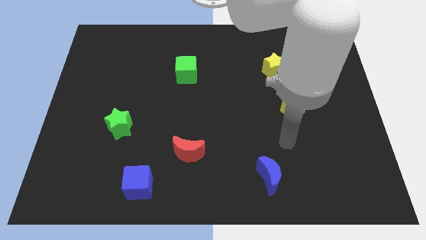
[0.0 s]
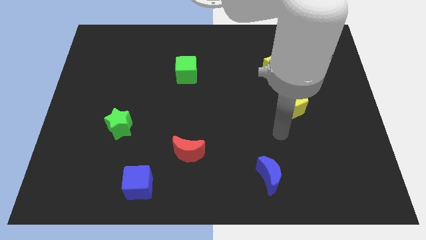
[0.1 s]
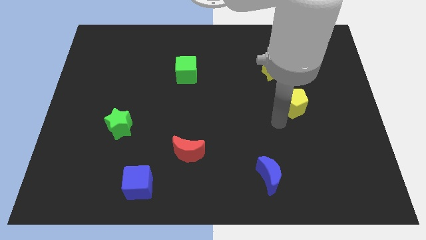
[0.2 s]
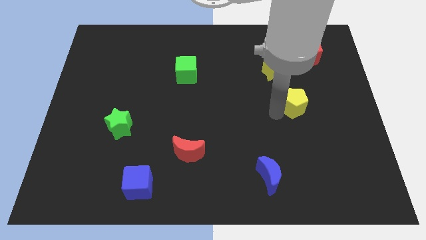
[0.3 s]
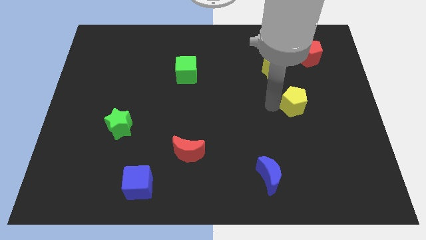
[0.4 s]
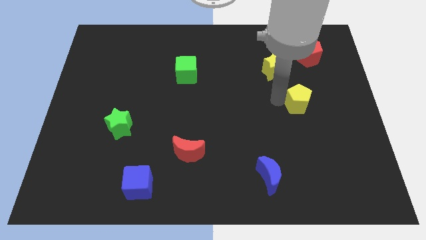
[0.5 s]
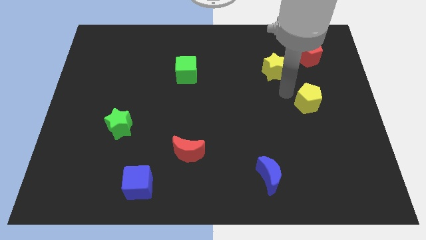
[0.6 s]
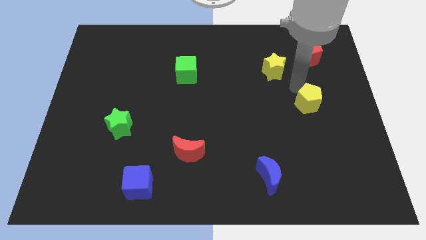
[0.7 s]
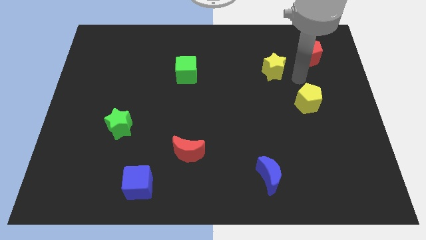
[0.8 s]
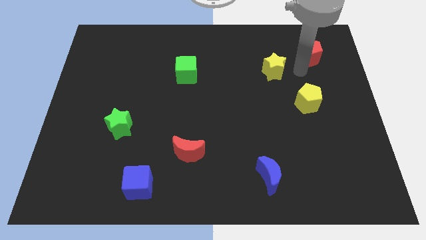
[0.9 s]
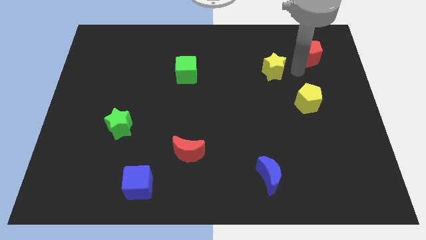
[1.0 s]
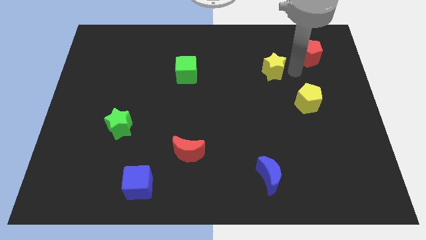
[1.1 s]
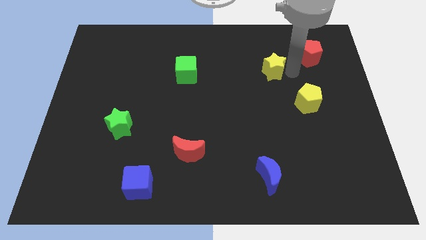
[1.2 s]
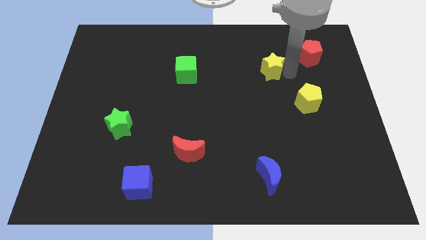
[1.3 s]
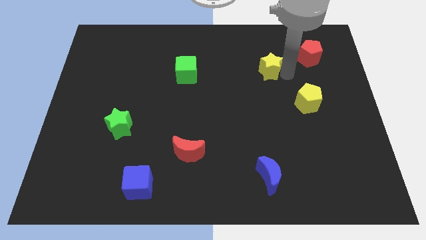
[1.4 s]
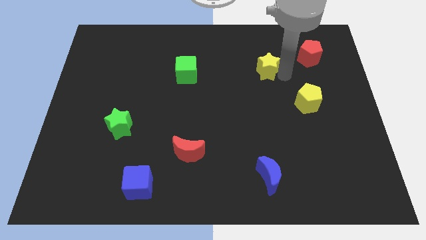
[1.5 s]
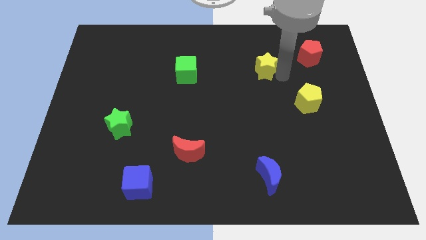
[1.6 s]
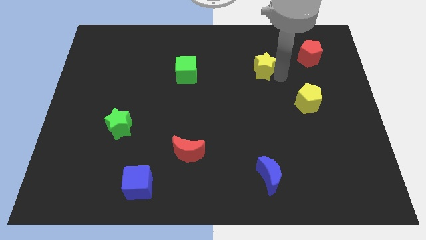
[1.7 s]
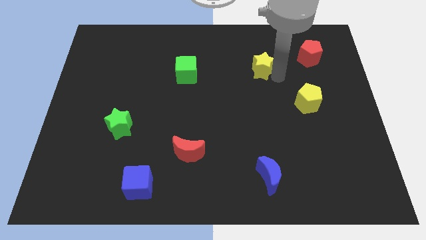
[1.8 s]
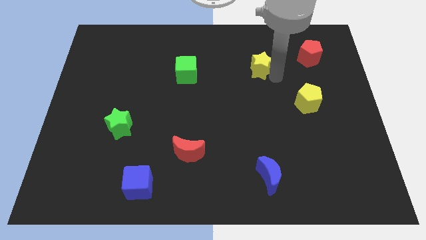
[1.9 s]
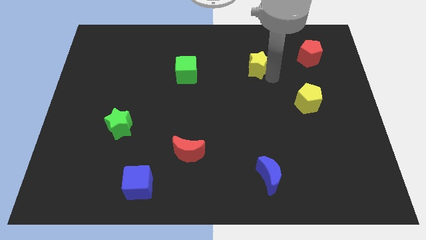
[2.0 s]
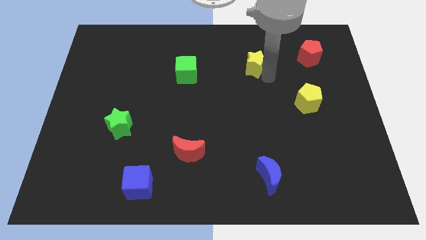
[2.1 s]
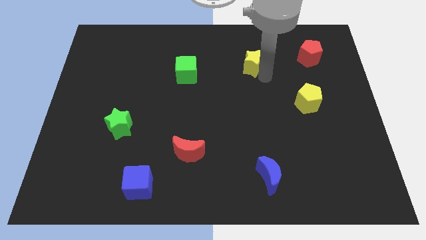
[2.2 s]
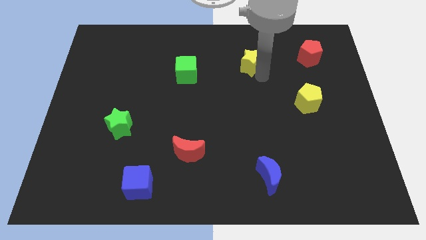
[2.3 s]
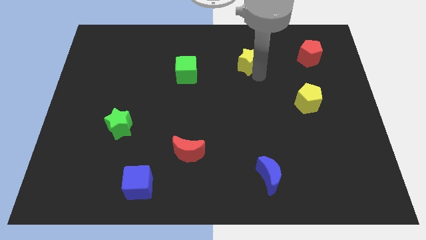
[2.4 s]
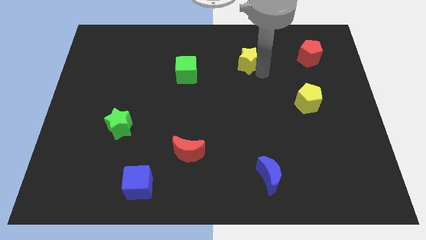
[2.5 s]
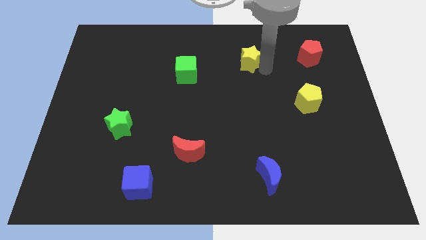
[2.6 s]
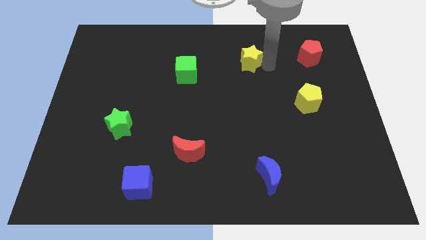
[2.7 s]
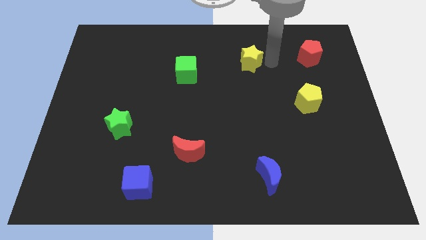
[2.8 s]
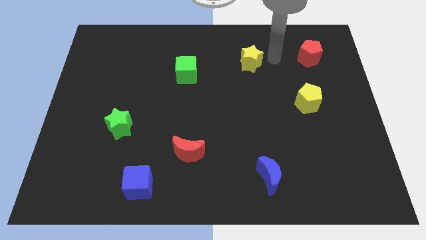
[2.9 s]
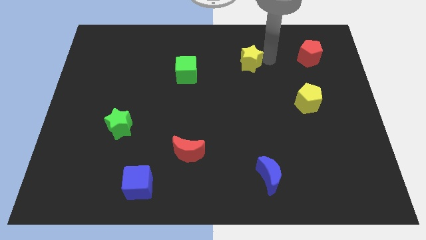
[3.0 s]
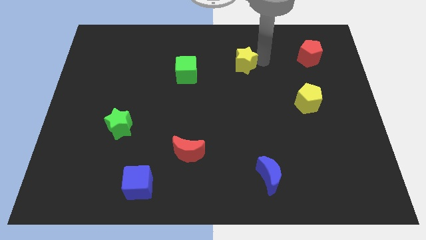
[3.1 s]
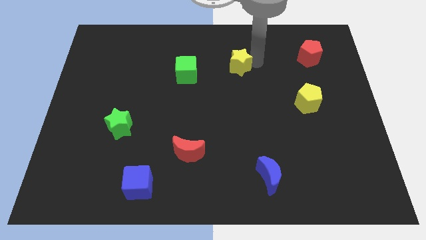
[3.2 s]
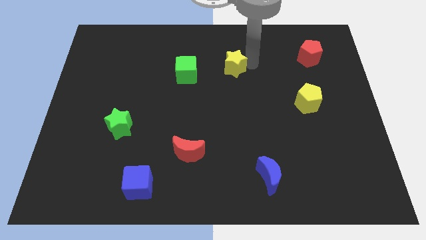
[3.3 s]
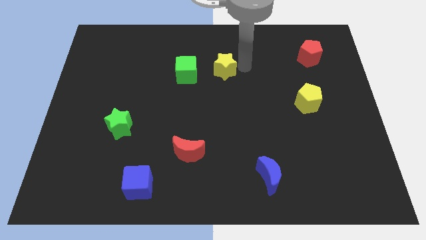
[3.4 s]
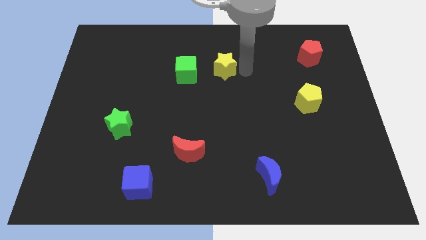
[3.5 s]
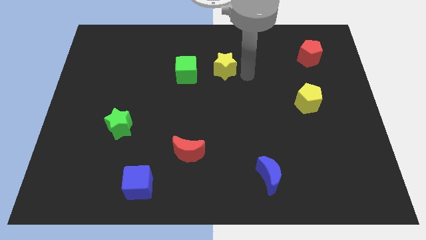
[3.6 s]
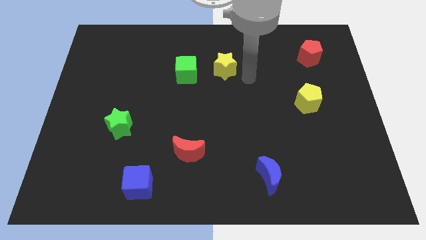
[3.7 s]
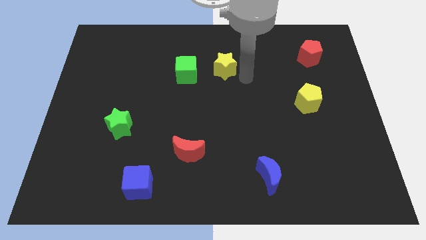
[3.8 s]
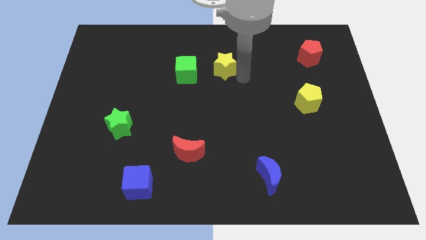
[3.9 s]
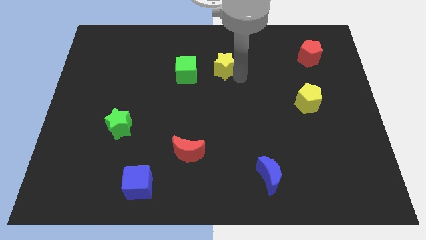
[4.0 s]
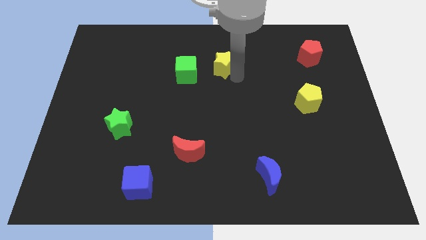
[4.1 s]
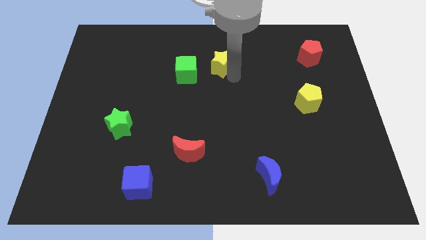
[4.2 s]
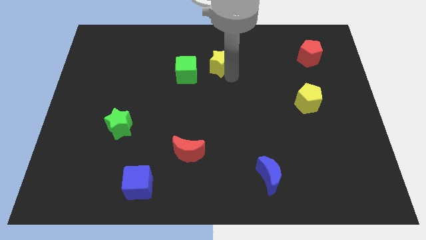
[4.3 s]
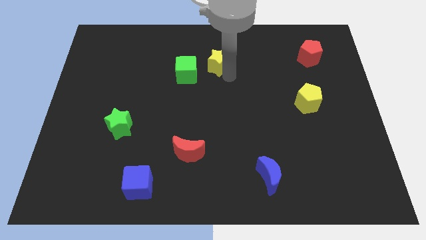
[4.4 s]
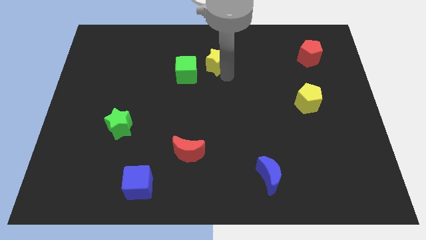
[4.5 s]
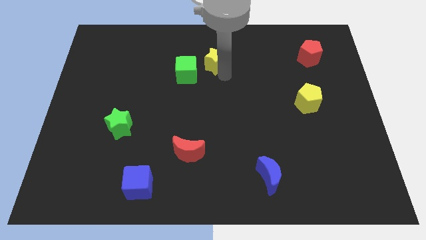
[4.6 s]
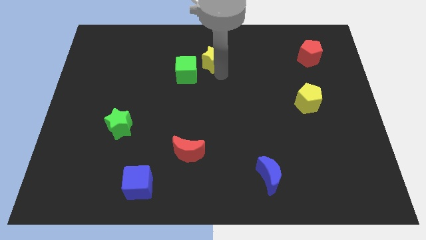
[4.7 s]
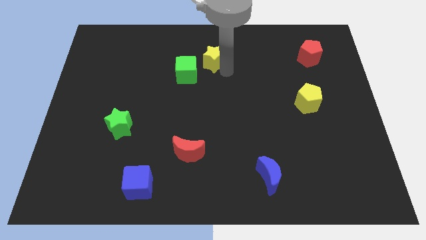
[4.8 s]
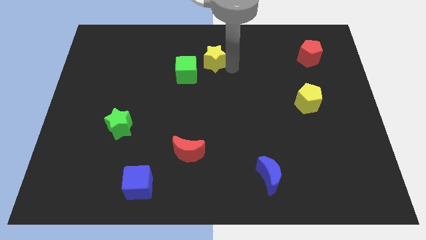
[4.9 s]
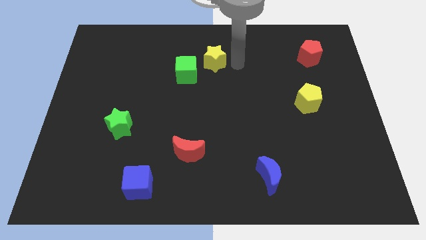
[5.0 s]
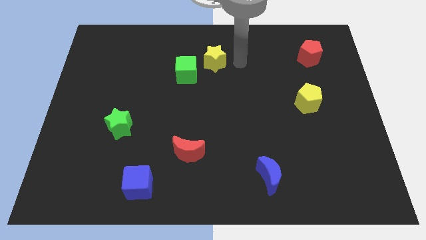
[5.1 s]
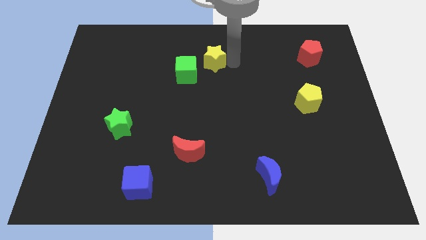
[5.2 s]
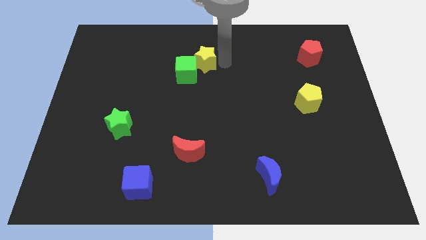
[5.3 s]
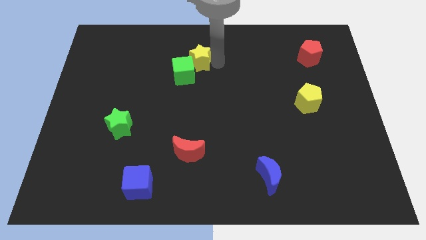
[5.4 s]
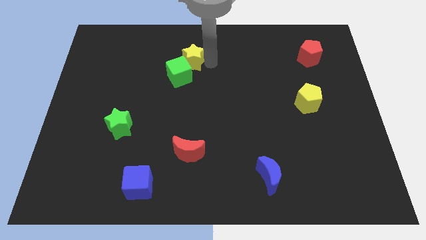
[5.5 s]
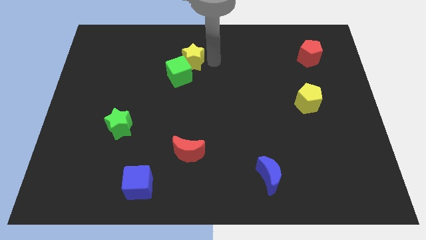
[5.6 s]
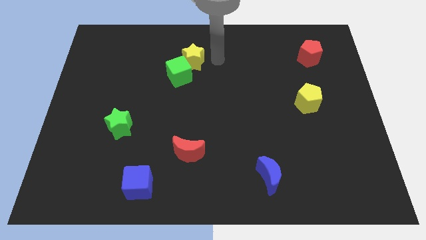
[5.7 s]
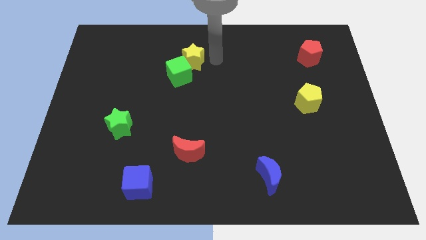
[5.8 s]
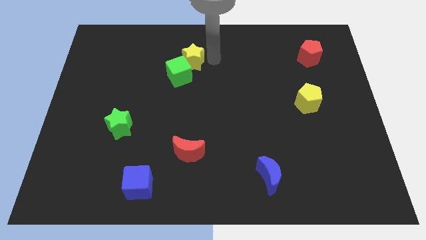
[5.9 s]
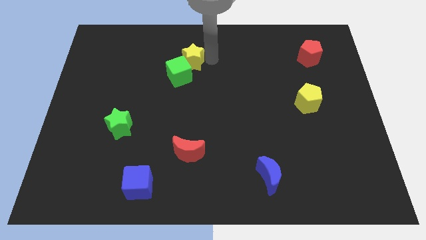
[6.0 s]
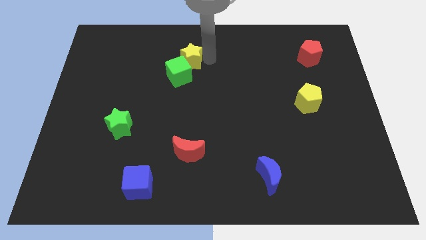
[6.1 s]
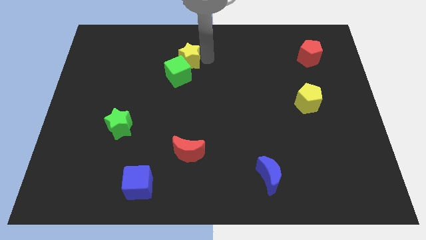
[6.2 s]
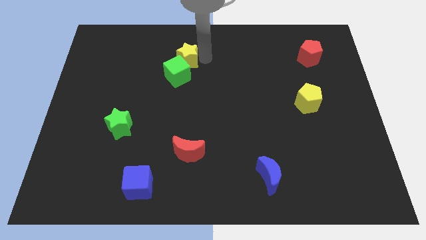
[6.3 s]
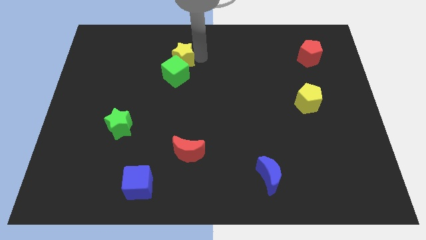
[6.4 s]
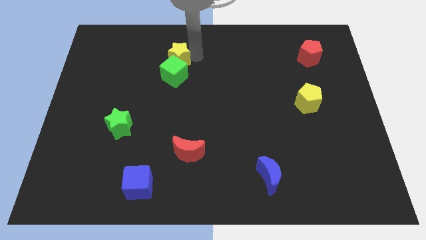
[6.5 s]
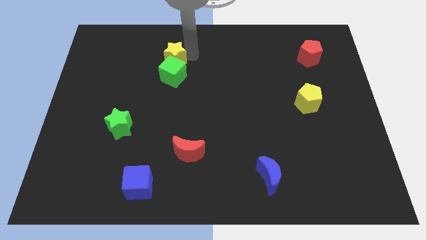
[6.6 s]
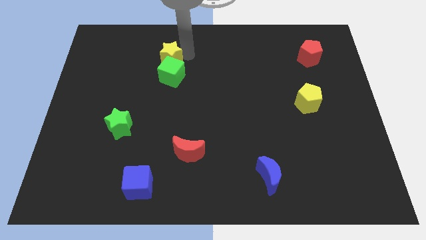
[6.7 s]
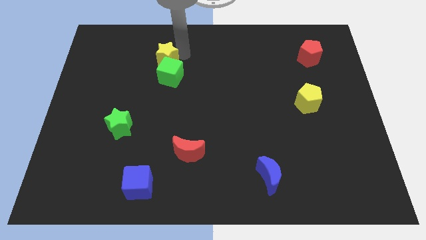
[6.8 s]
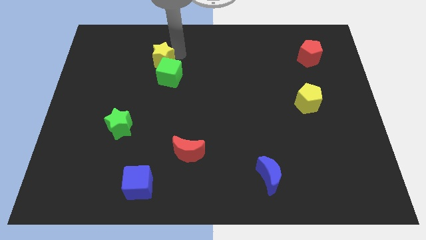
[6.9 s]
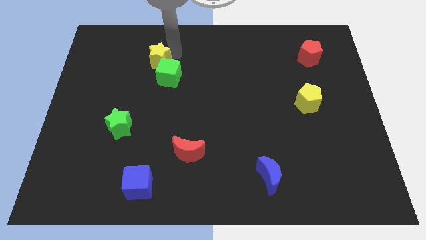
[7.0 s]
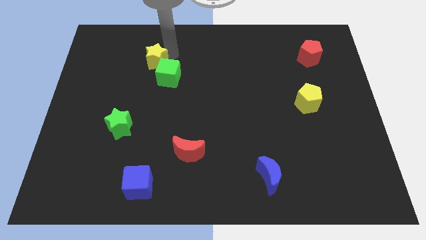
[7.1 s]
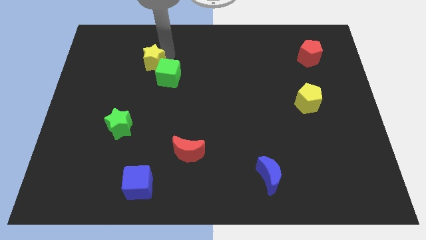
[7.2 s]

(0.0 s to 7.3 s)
push the yellow star to the left side of the green cube
